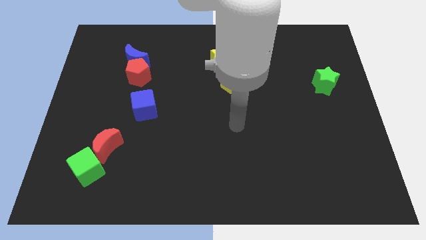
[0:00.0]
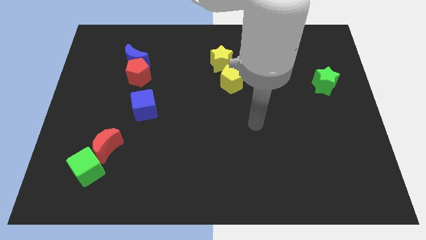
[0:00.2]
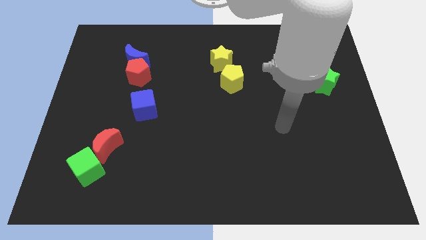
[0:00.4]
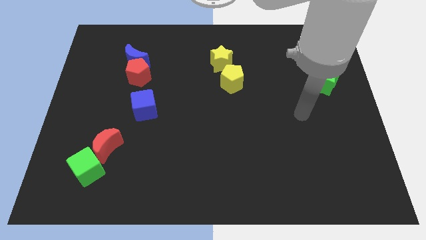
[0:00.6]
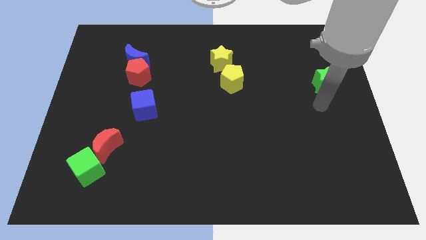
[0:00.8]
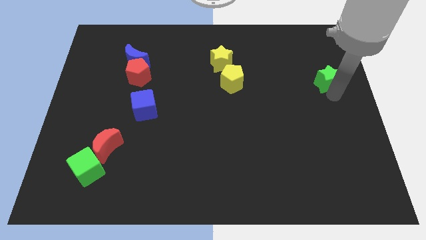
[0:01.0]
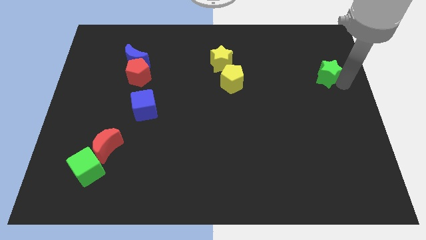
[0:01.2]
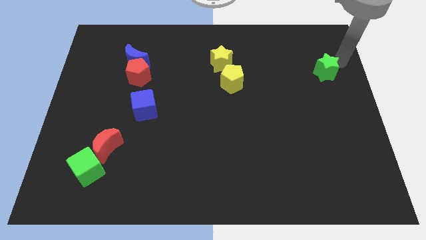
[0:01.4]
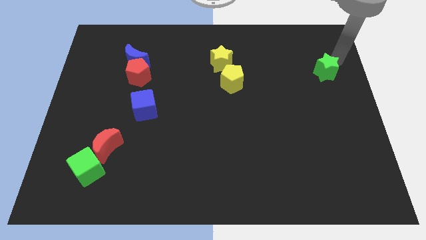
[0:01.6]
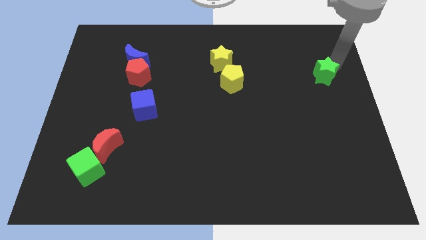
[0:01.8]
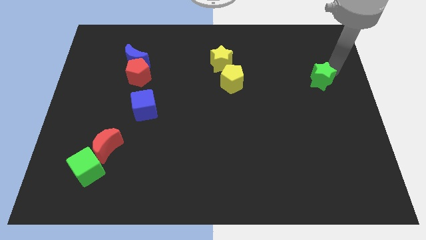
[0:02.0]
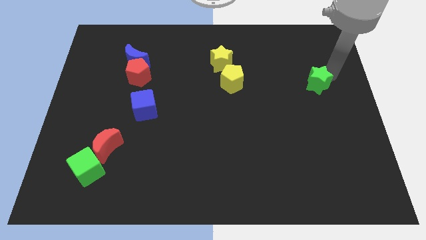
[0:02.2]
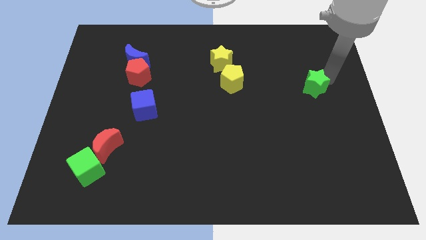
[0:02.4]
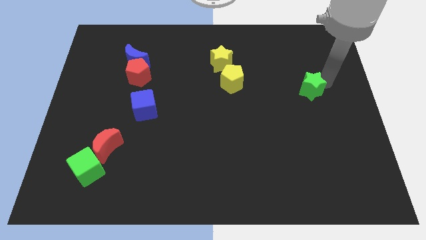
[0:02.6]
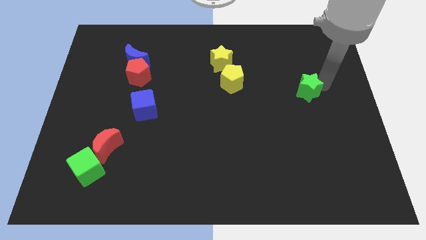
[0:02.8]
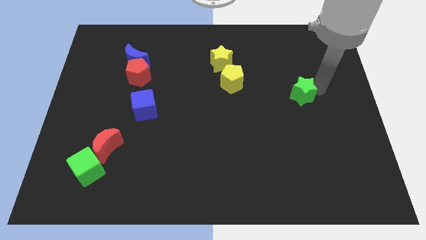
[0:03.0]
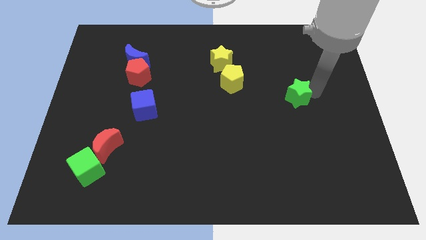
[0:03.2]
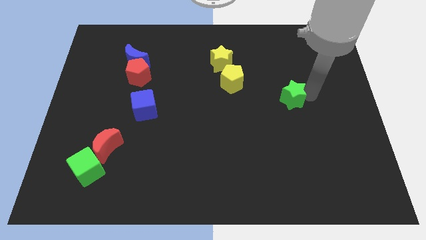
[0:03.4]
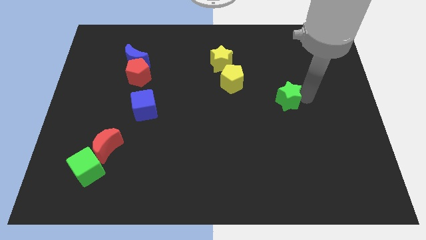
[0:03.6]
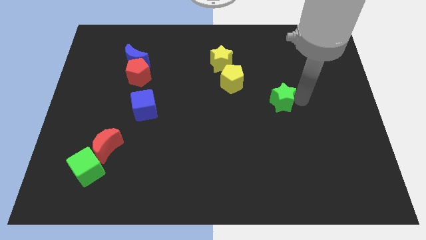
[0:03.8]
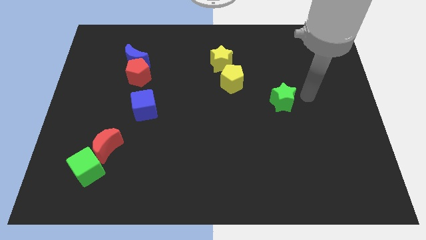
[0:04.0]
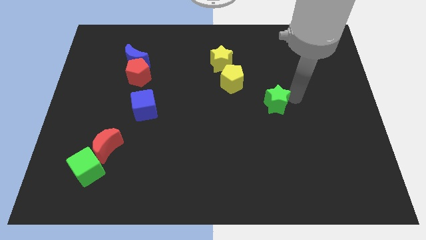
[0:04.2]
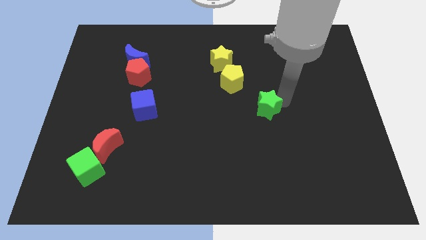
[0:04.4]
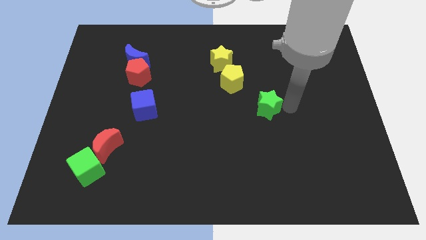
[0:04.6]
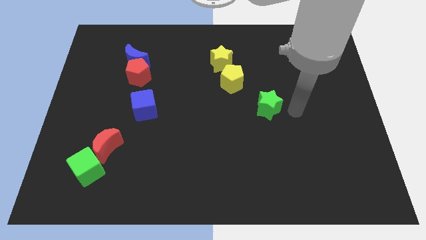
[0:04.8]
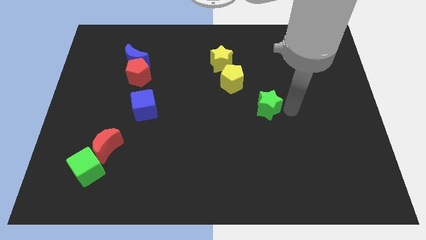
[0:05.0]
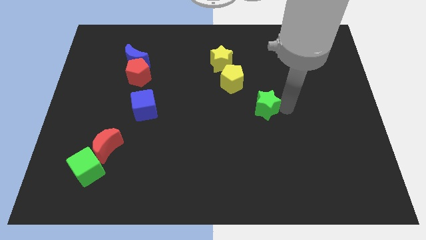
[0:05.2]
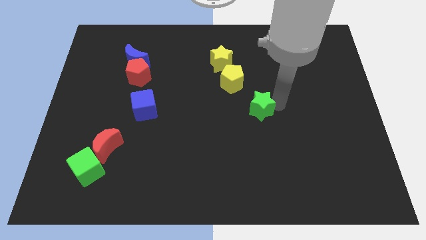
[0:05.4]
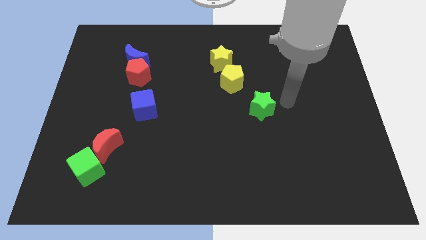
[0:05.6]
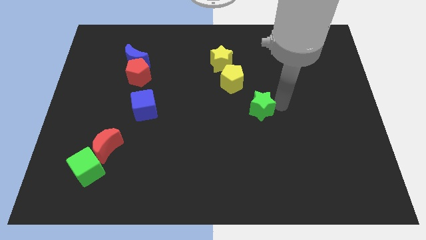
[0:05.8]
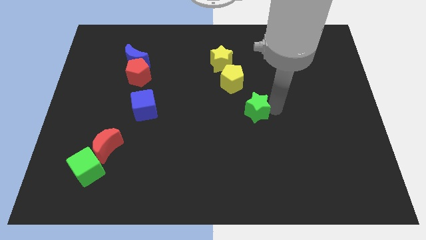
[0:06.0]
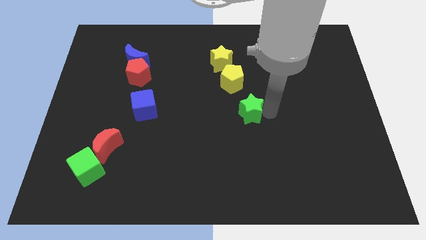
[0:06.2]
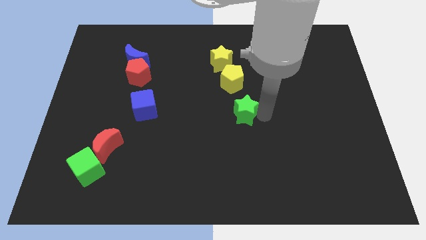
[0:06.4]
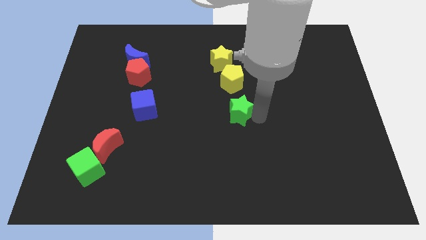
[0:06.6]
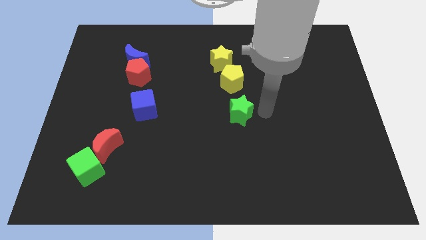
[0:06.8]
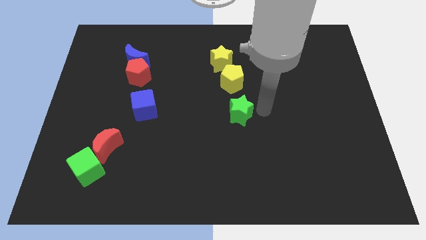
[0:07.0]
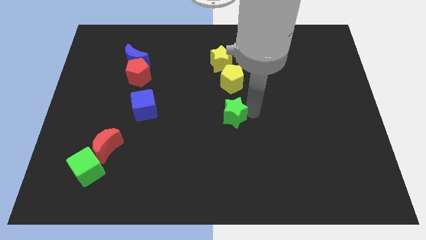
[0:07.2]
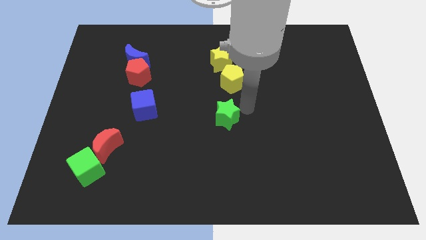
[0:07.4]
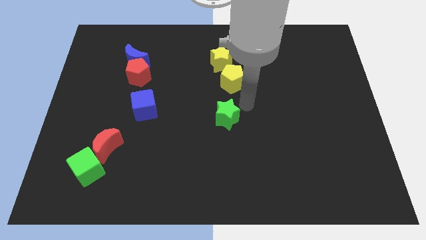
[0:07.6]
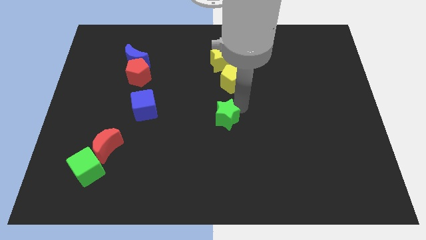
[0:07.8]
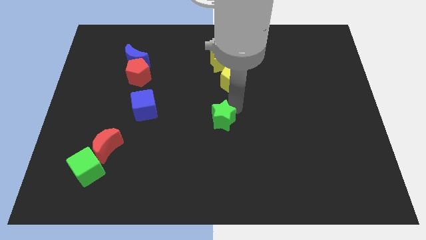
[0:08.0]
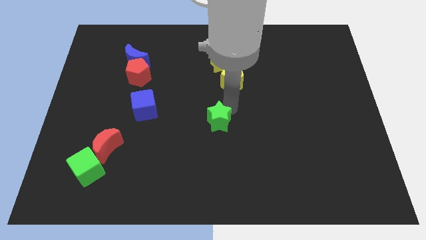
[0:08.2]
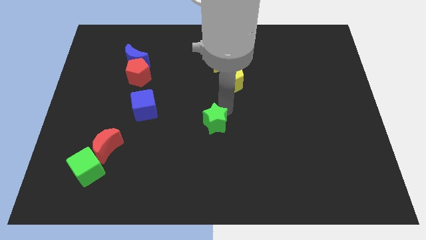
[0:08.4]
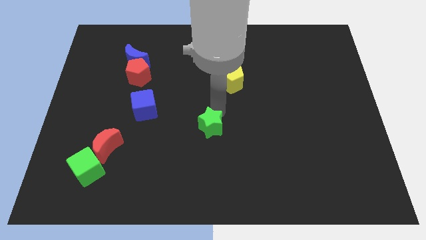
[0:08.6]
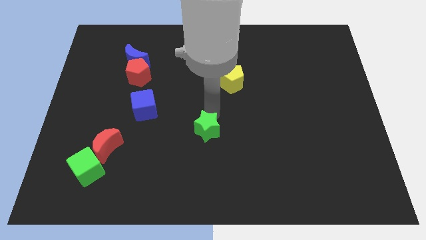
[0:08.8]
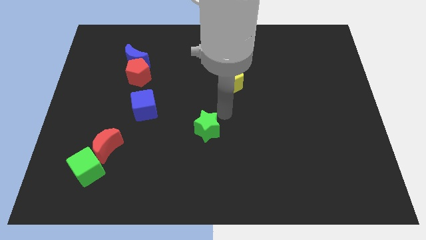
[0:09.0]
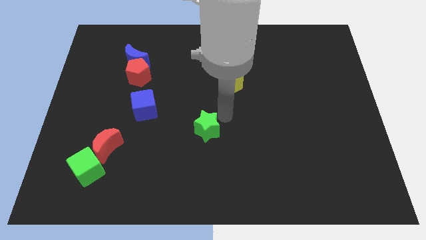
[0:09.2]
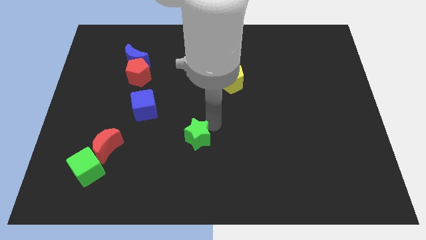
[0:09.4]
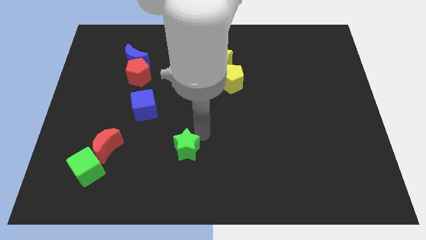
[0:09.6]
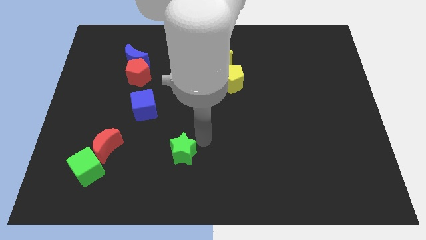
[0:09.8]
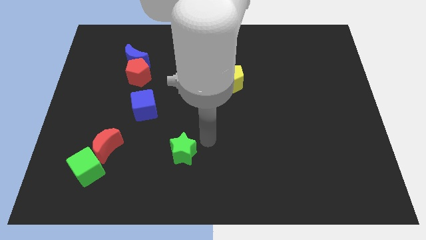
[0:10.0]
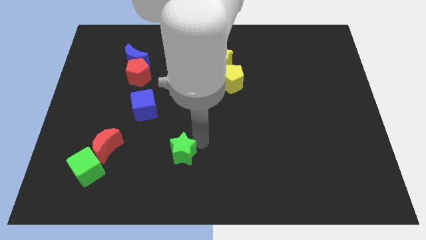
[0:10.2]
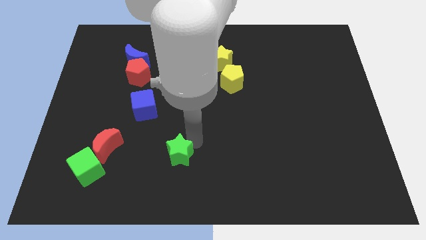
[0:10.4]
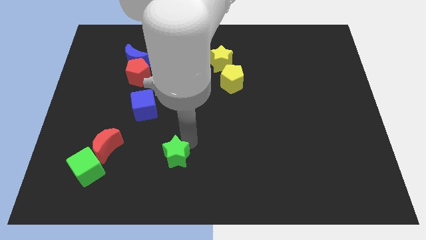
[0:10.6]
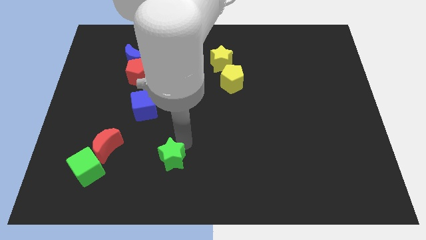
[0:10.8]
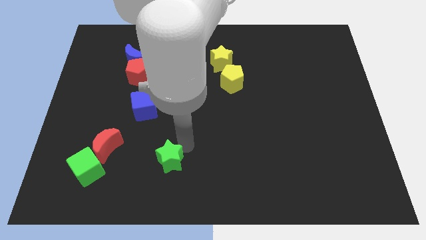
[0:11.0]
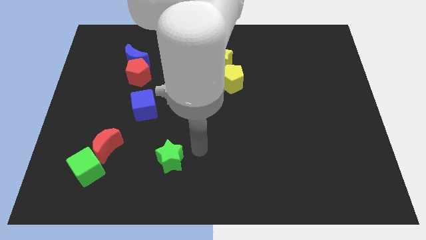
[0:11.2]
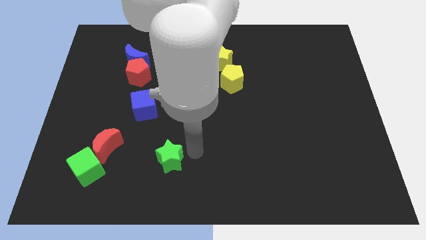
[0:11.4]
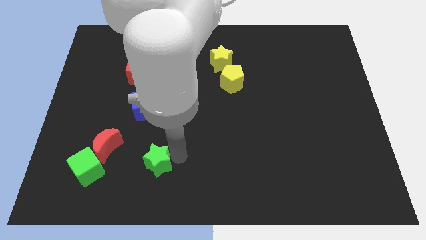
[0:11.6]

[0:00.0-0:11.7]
push the green star to the right side of the green cube
